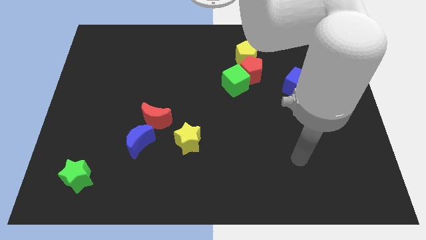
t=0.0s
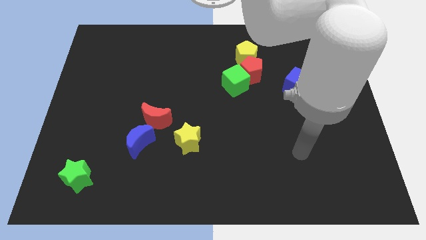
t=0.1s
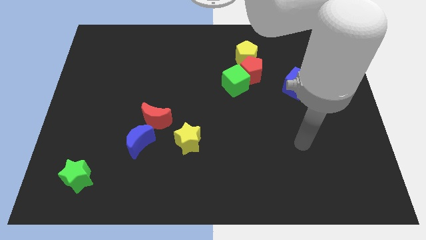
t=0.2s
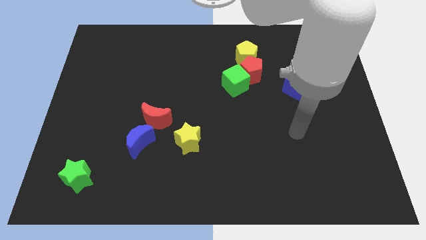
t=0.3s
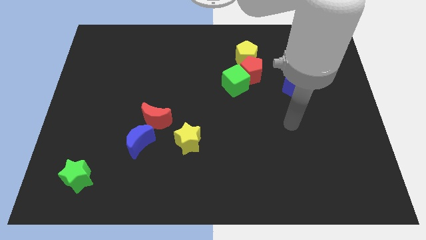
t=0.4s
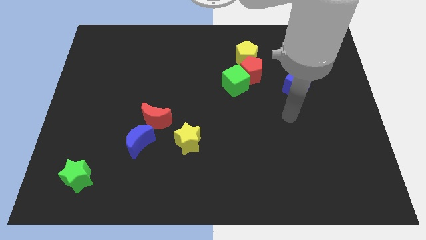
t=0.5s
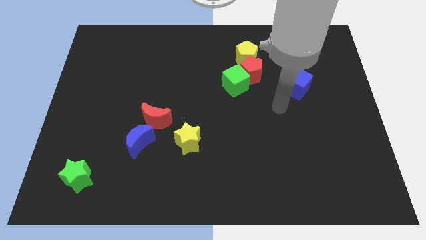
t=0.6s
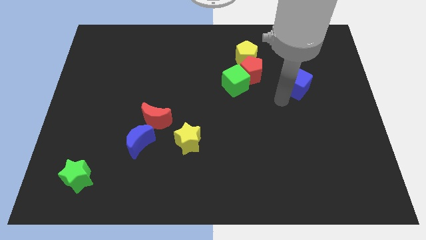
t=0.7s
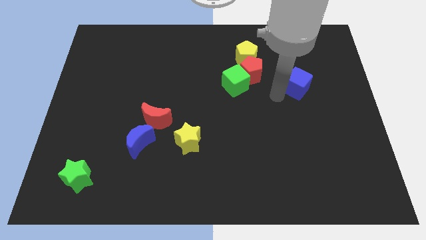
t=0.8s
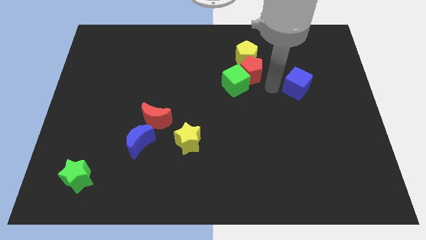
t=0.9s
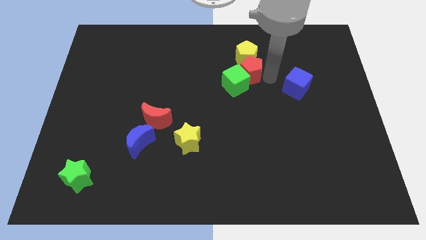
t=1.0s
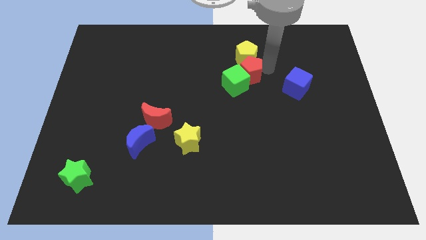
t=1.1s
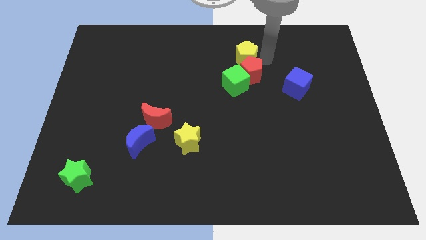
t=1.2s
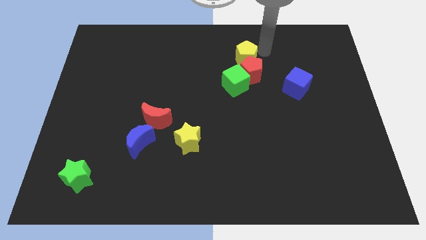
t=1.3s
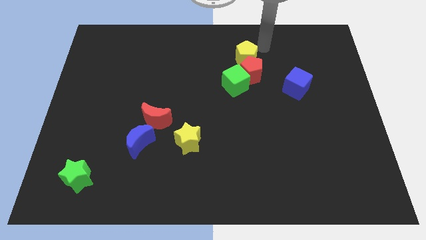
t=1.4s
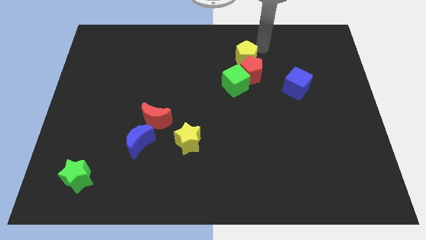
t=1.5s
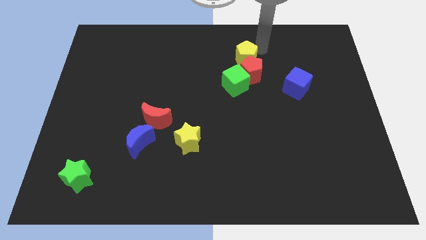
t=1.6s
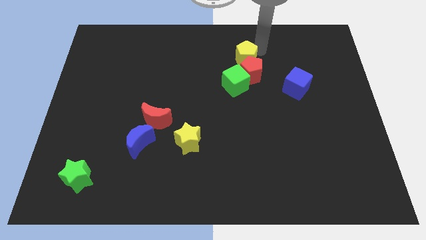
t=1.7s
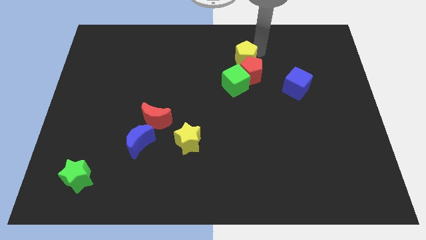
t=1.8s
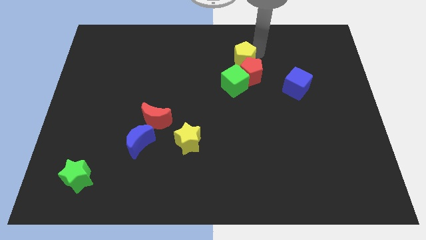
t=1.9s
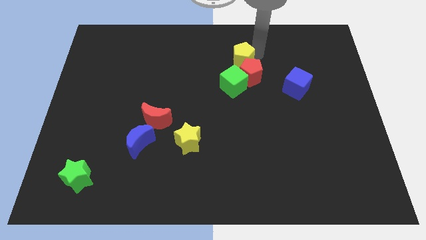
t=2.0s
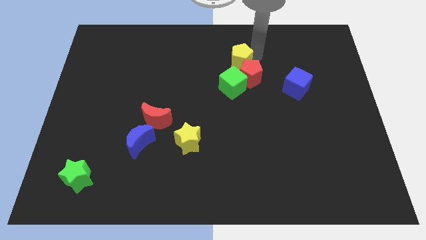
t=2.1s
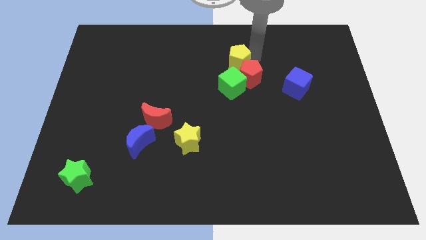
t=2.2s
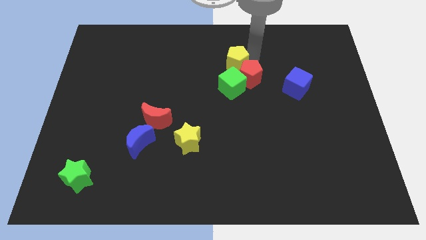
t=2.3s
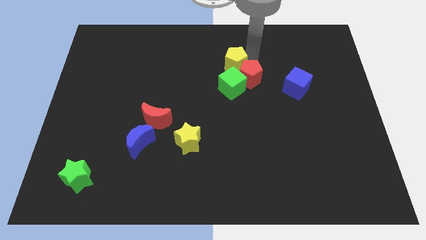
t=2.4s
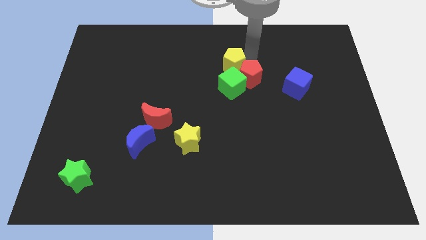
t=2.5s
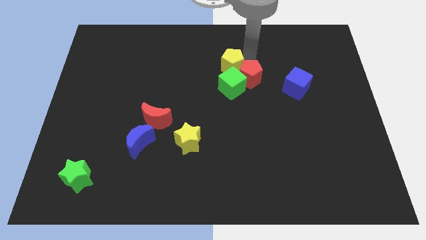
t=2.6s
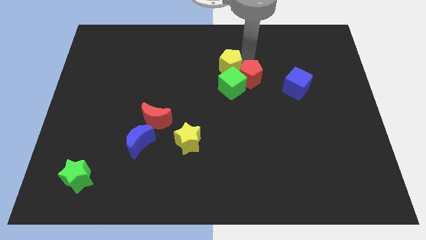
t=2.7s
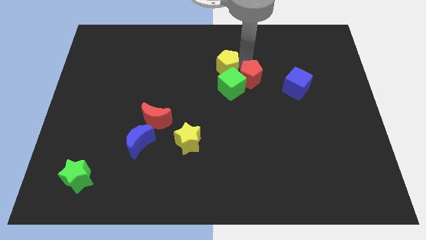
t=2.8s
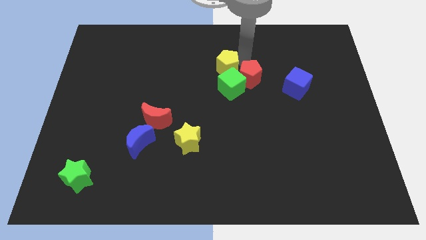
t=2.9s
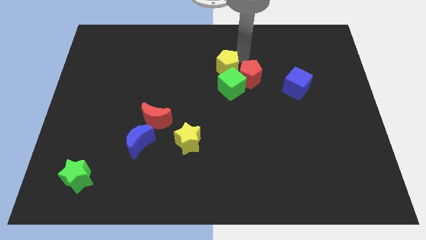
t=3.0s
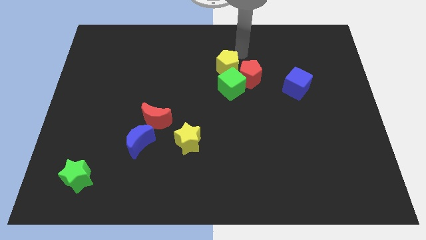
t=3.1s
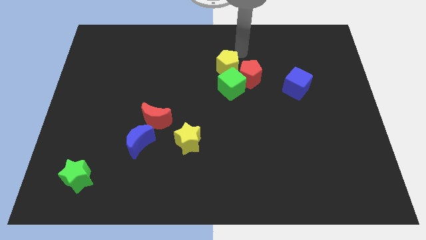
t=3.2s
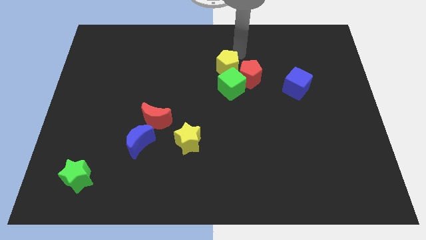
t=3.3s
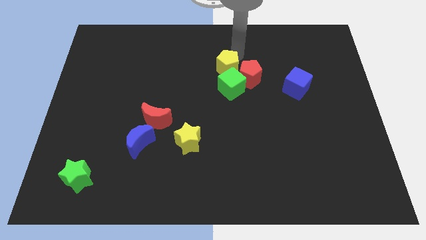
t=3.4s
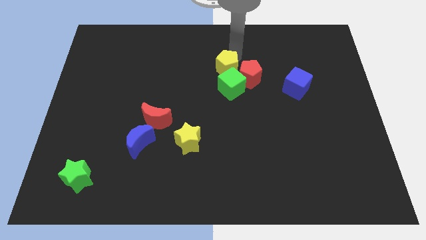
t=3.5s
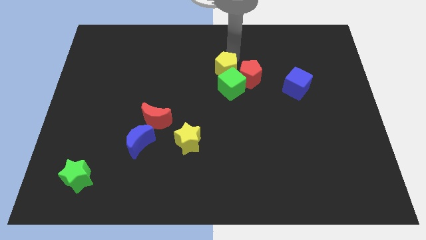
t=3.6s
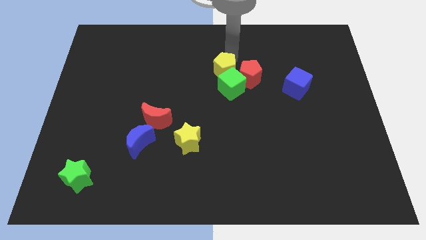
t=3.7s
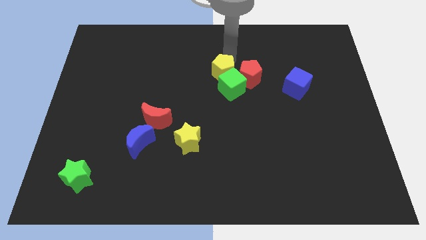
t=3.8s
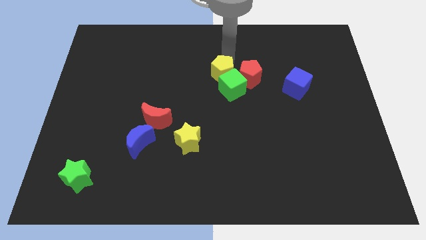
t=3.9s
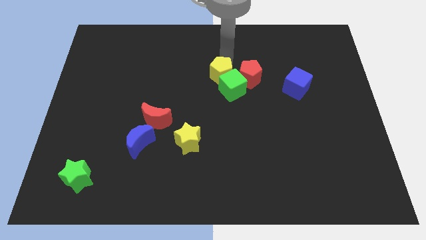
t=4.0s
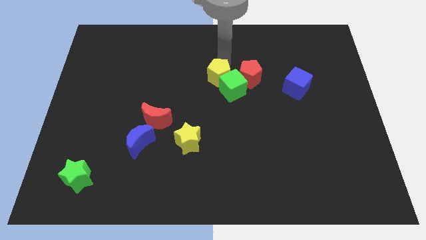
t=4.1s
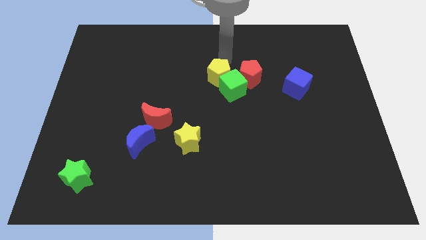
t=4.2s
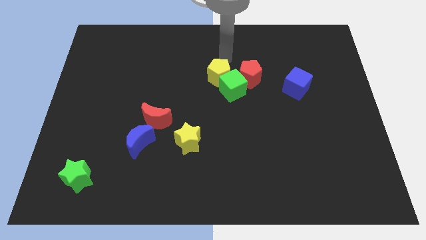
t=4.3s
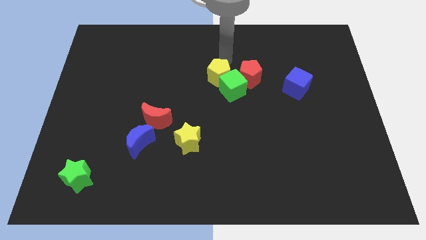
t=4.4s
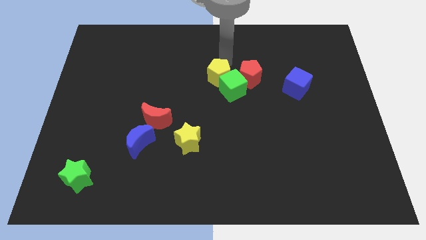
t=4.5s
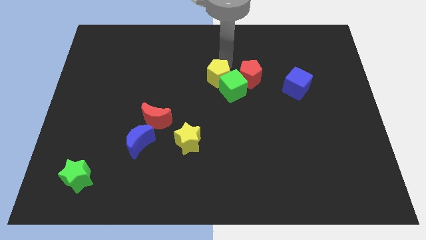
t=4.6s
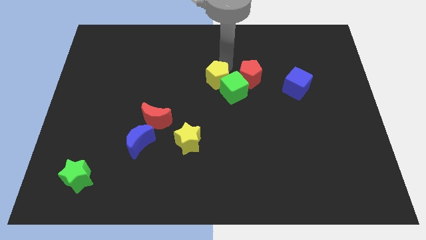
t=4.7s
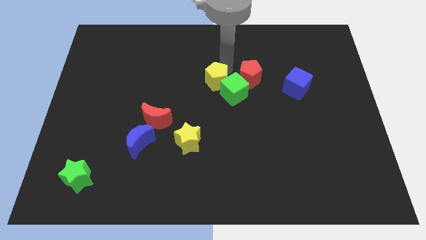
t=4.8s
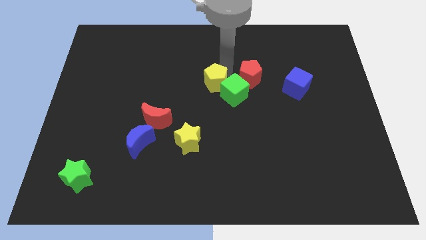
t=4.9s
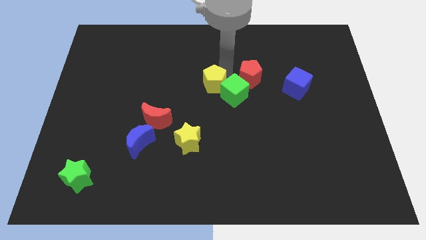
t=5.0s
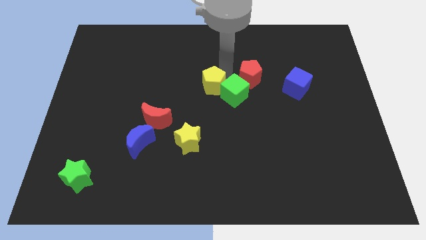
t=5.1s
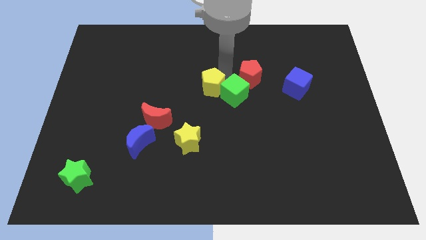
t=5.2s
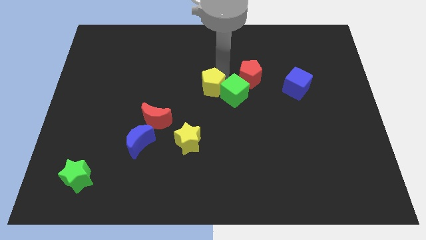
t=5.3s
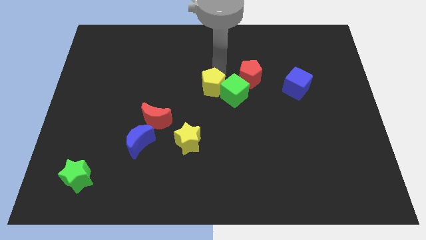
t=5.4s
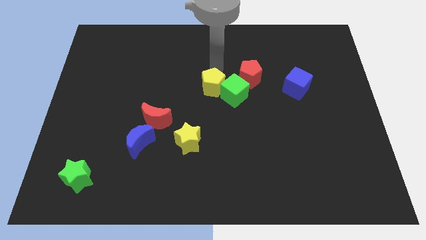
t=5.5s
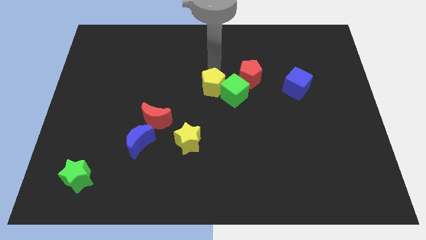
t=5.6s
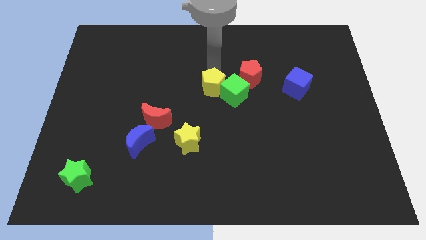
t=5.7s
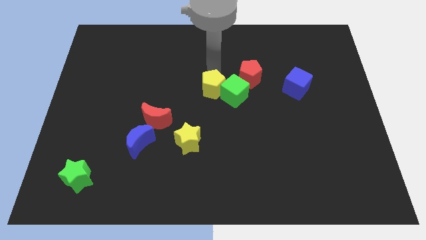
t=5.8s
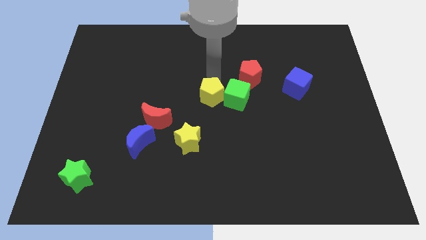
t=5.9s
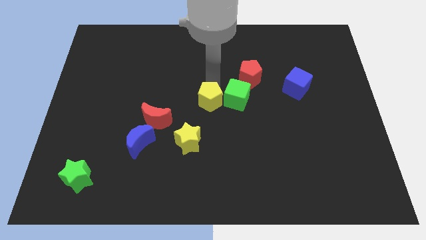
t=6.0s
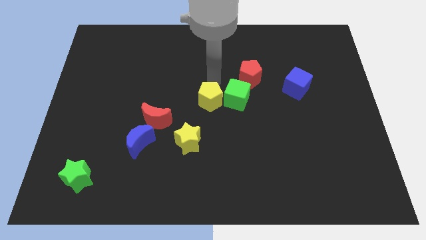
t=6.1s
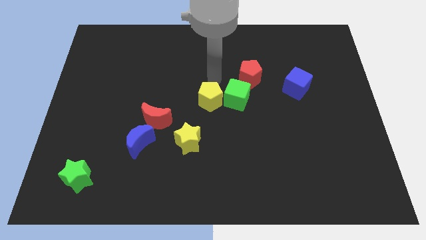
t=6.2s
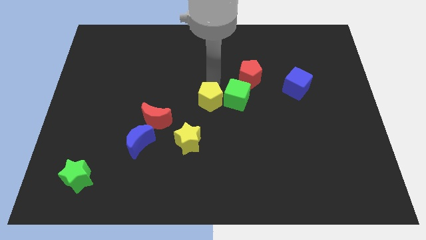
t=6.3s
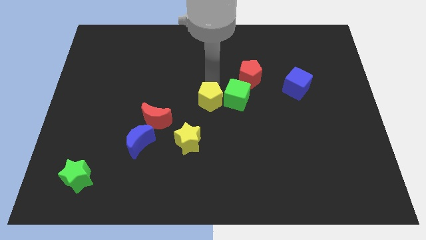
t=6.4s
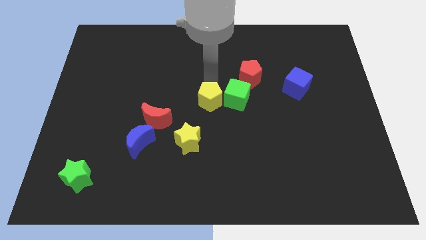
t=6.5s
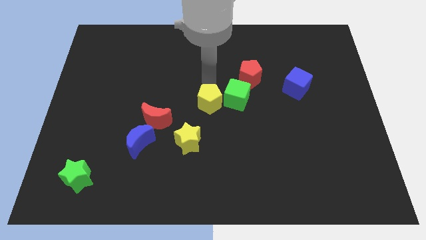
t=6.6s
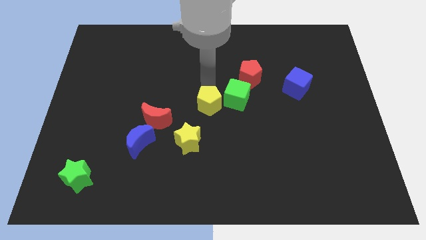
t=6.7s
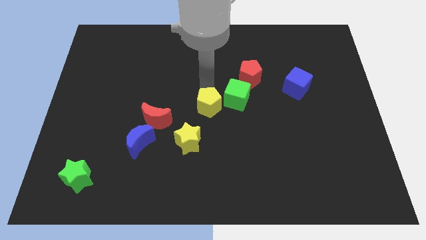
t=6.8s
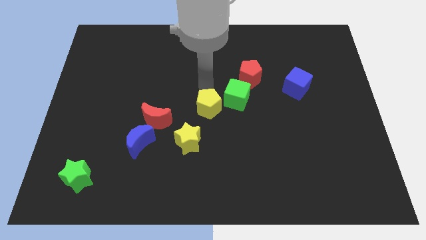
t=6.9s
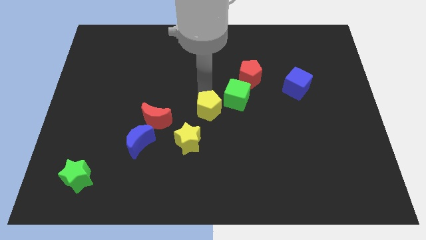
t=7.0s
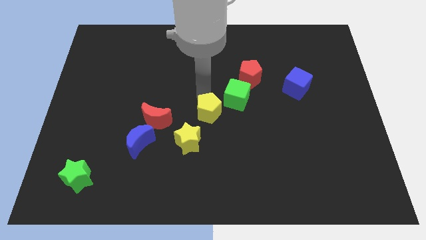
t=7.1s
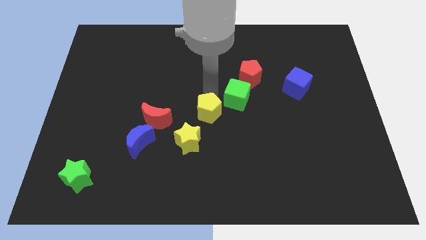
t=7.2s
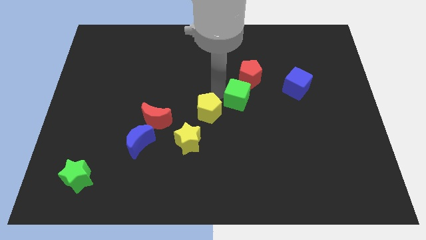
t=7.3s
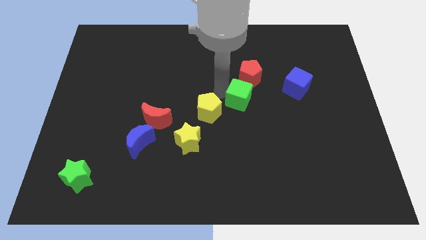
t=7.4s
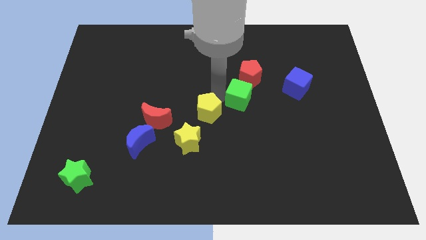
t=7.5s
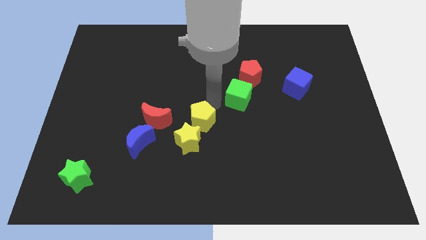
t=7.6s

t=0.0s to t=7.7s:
push the yellow pentagon close to the yellow star
